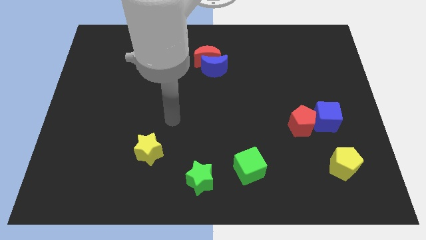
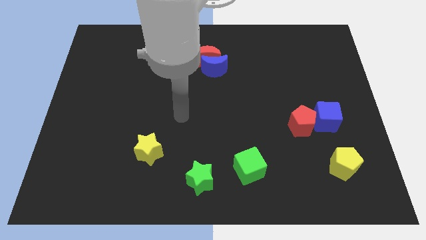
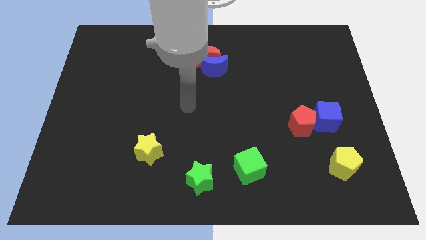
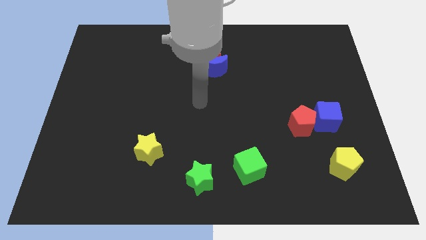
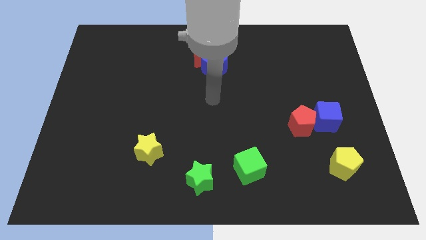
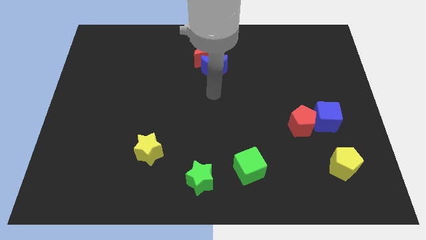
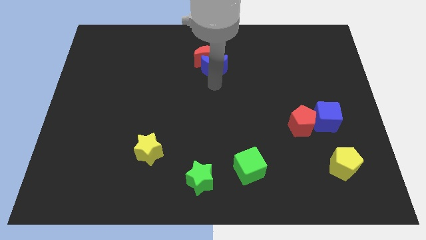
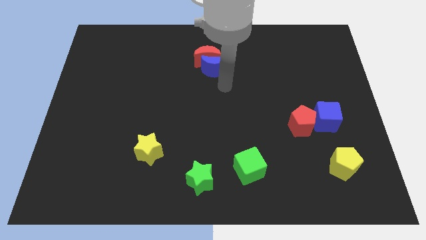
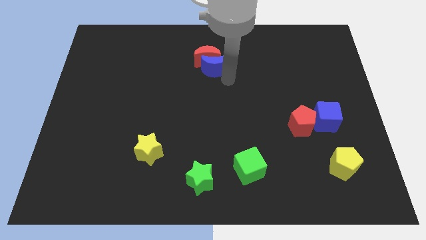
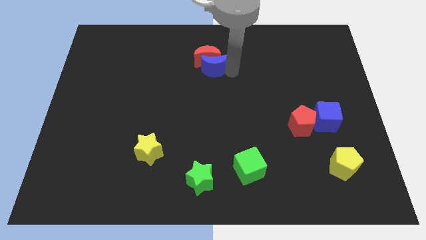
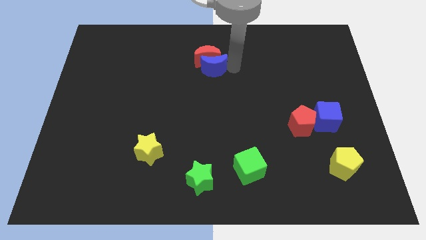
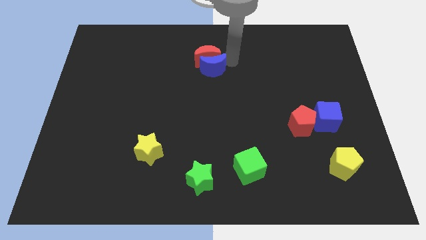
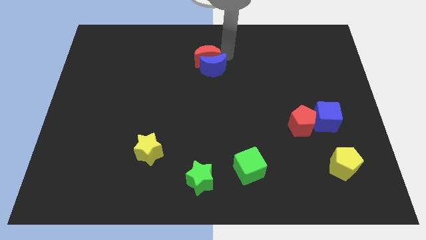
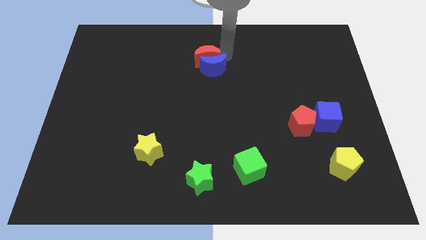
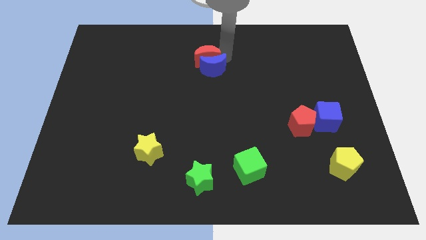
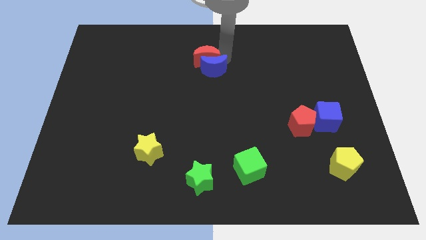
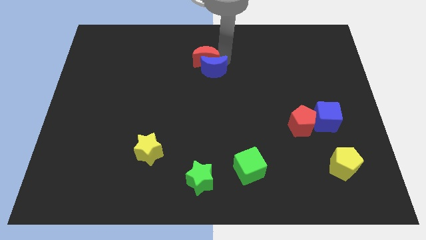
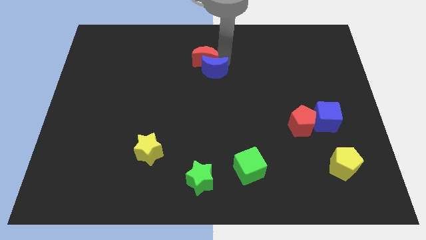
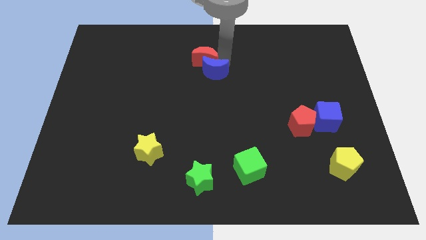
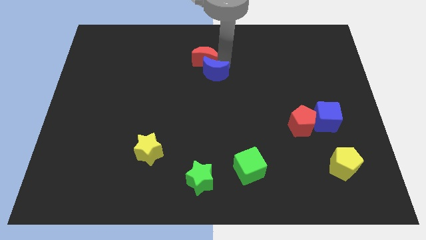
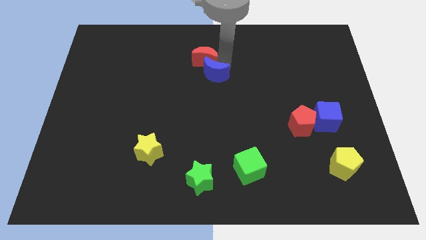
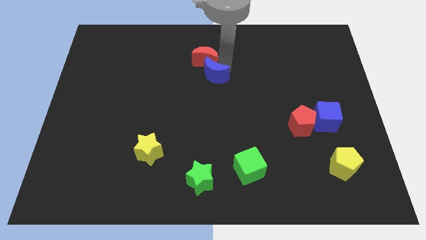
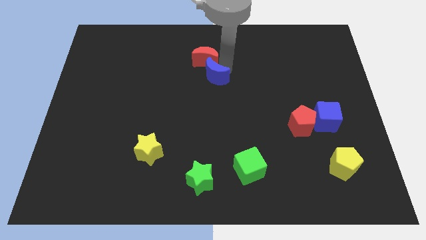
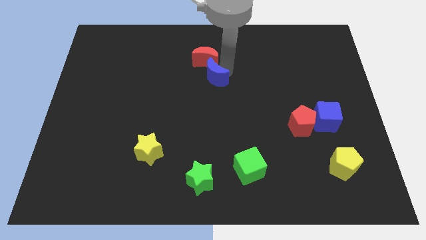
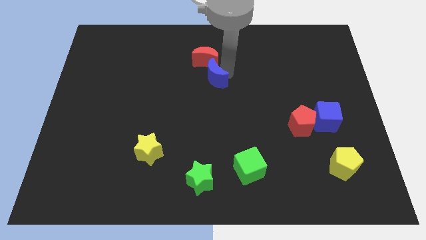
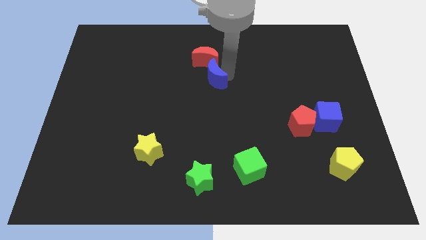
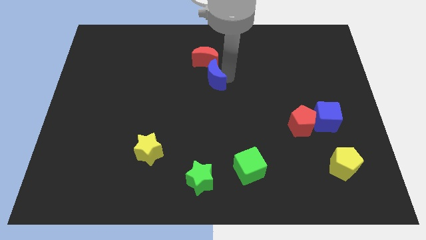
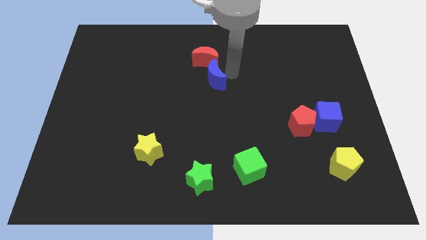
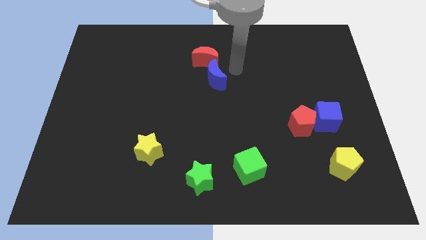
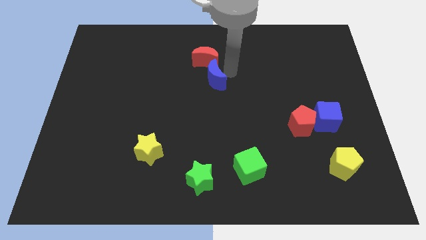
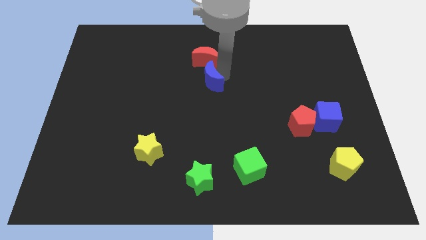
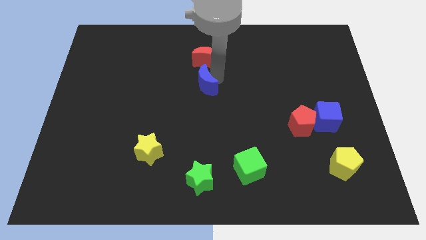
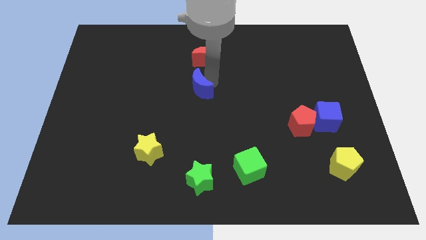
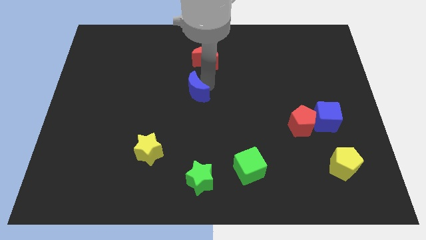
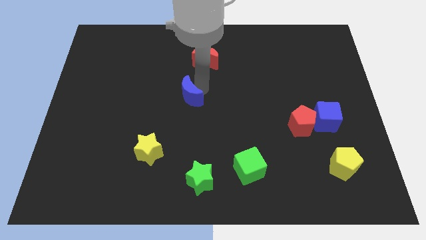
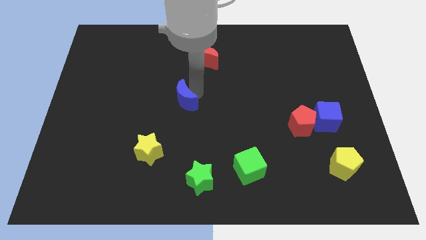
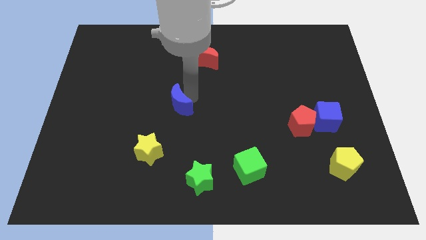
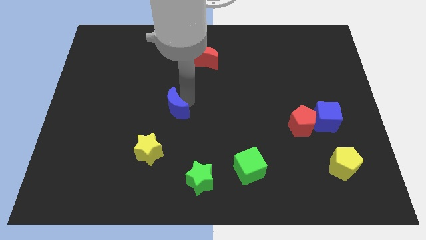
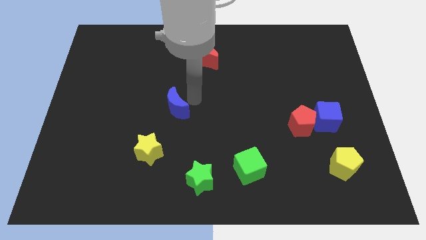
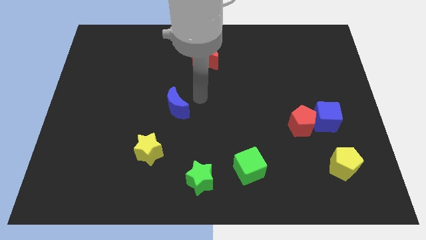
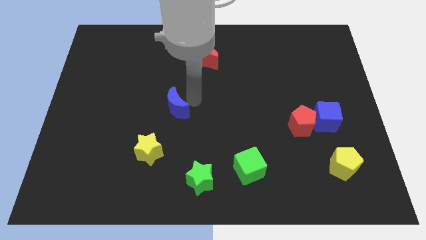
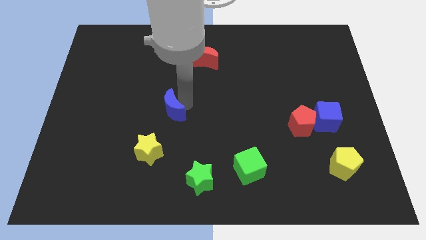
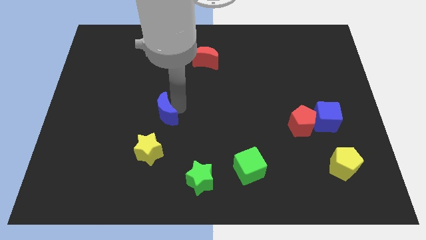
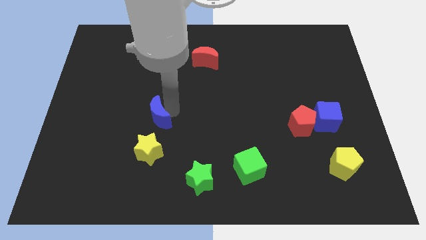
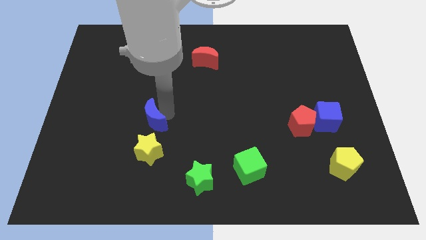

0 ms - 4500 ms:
push the blue moon downwards and then to the left

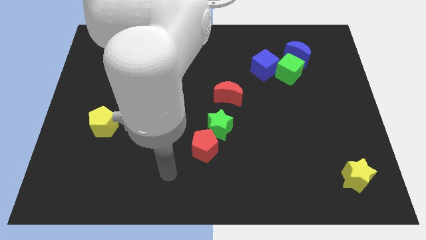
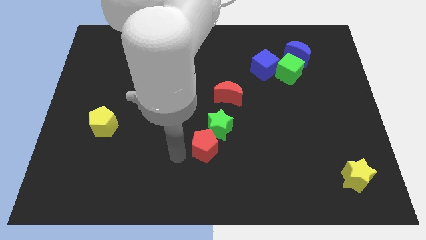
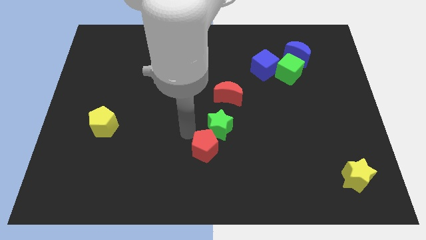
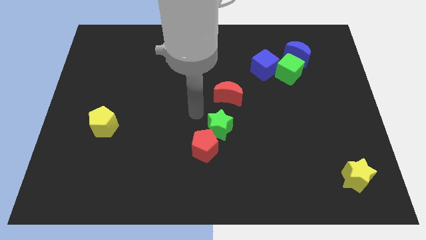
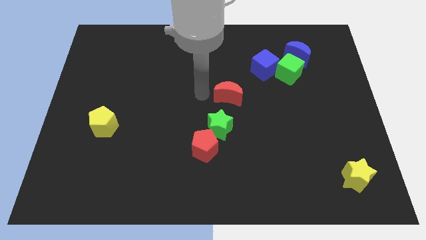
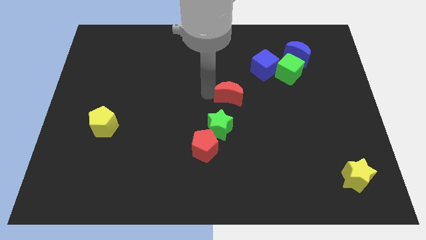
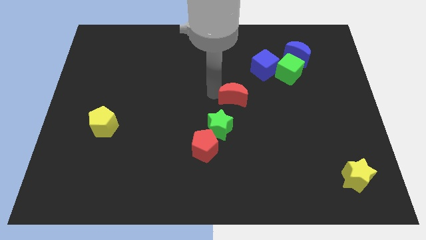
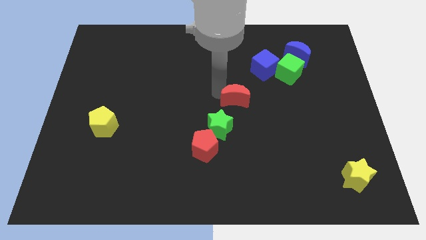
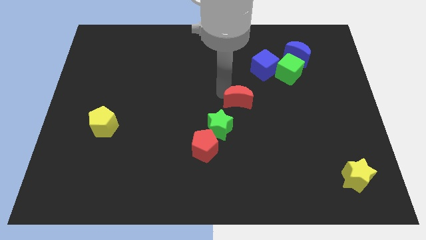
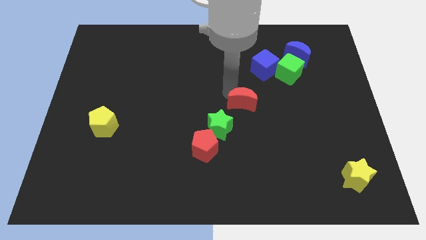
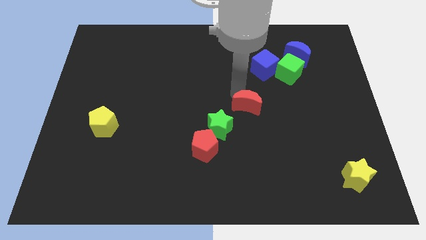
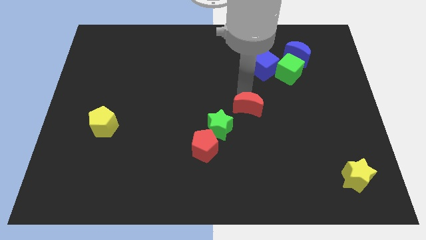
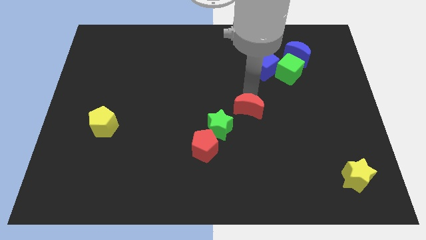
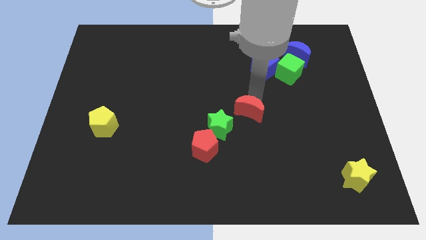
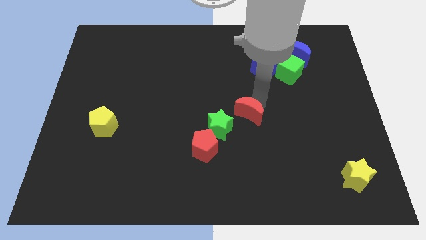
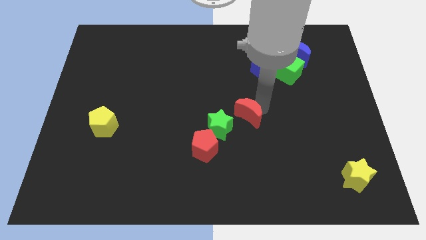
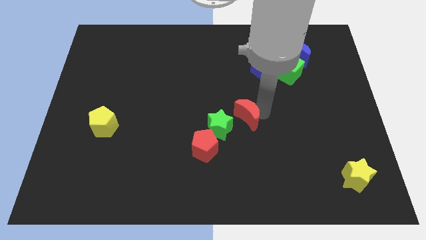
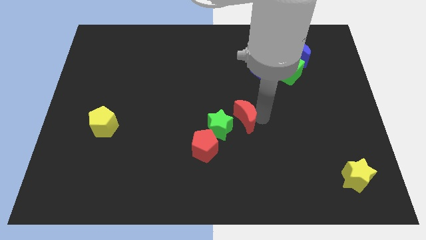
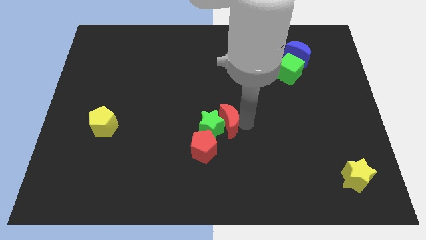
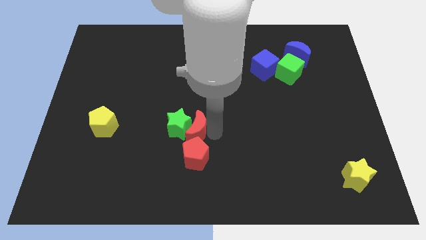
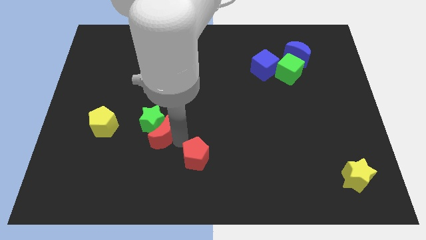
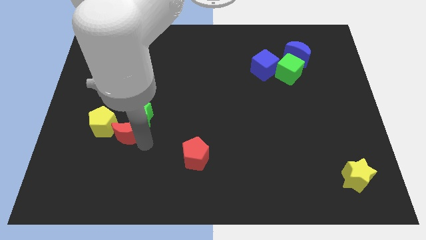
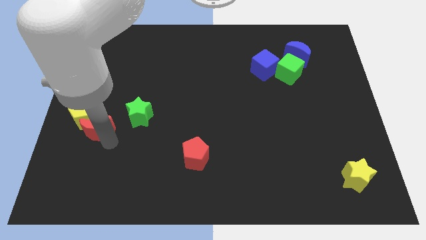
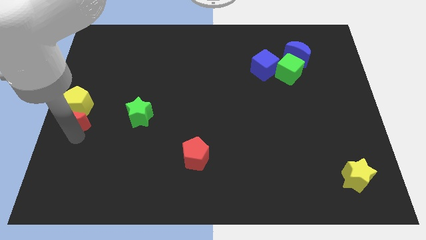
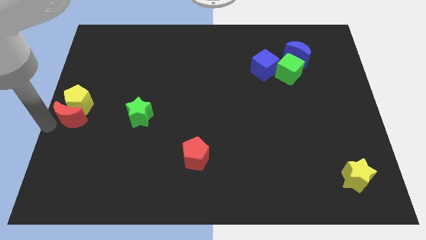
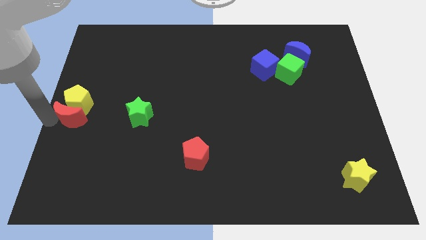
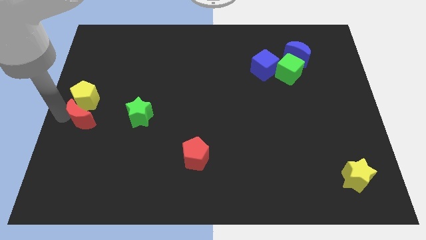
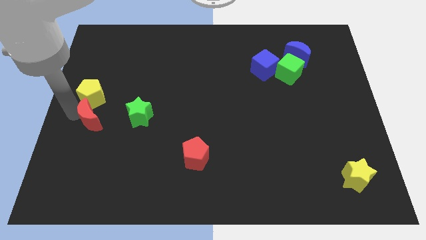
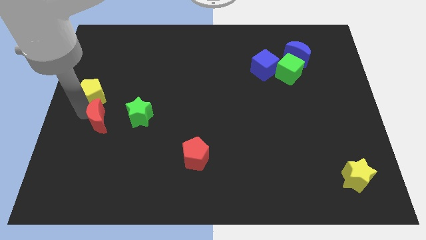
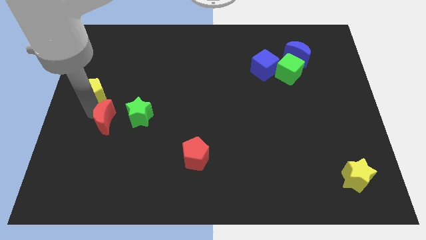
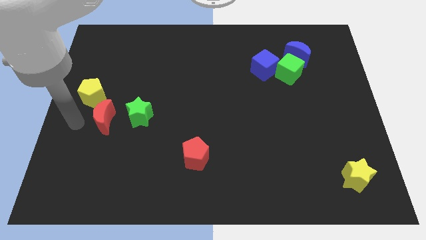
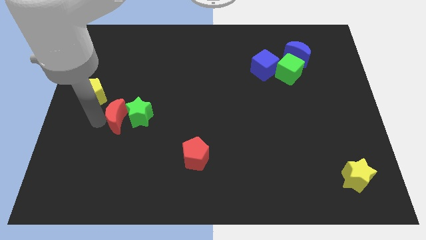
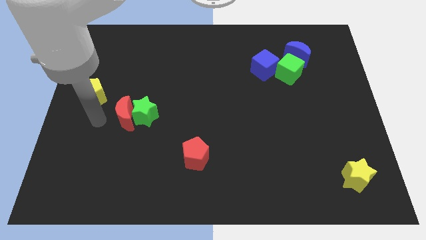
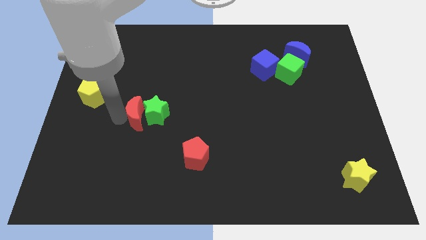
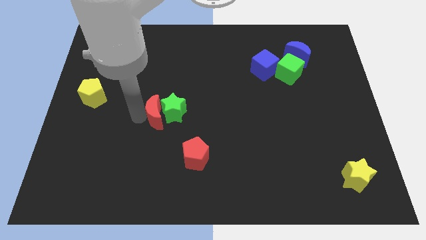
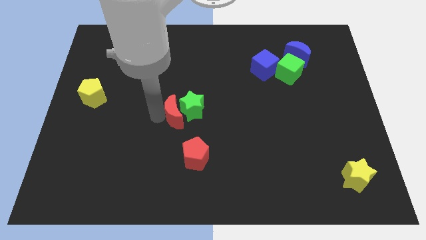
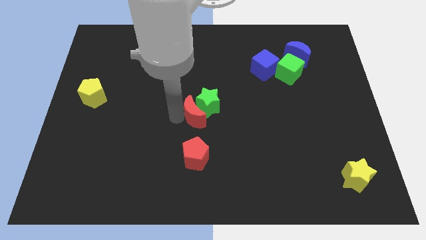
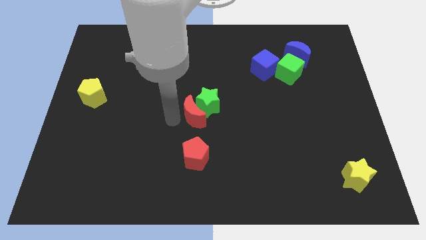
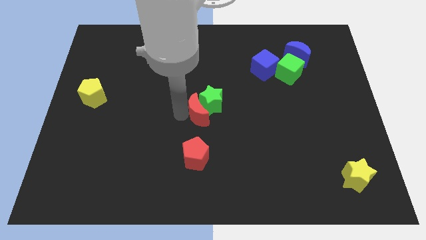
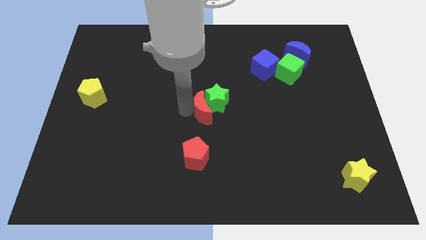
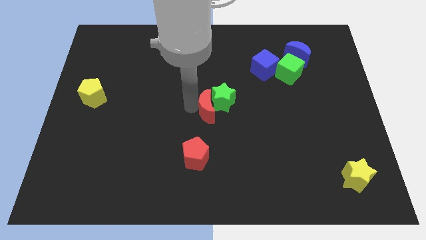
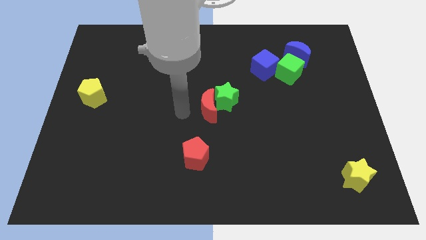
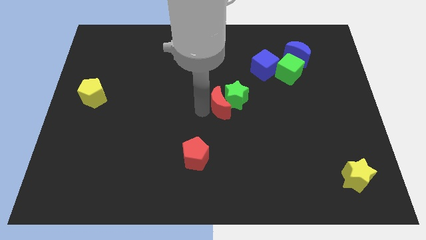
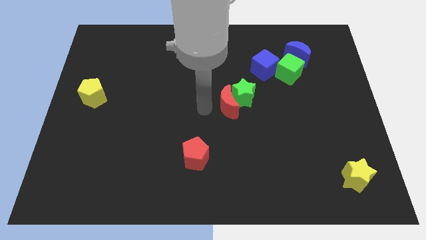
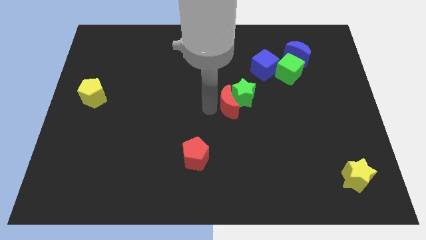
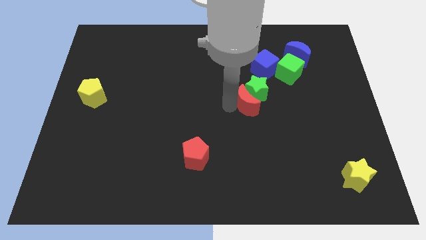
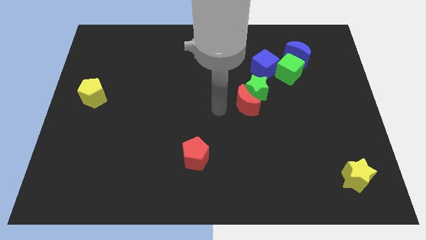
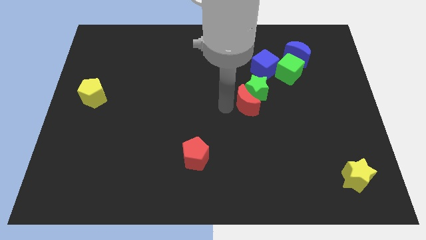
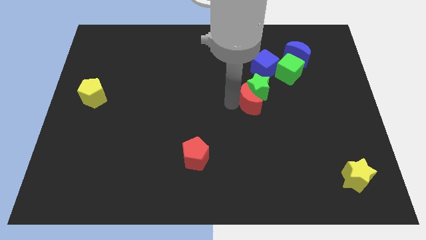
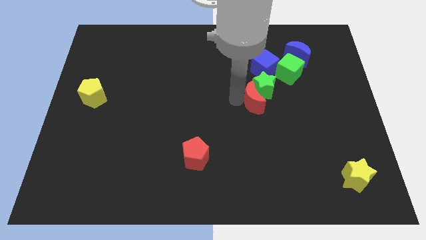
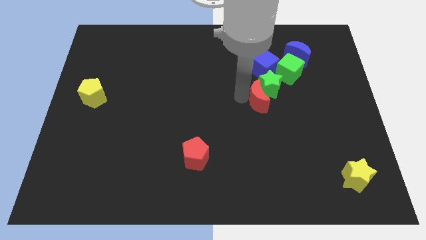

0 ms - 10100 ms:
slightly move the red moon to the right
